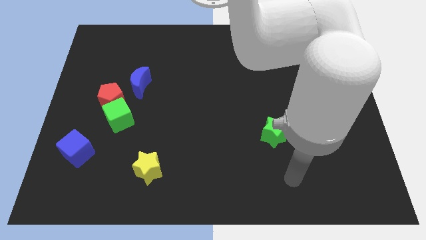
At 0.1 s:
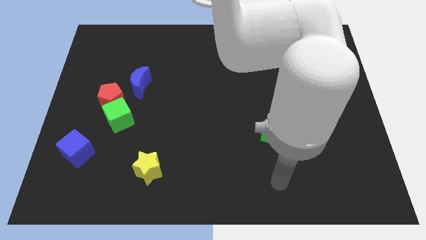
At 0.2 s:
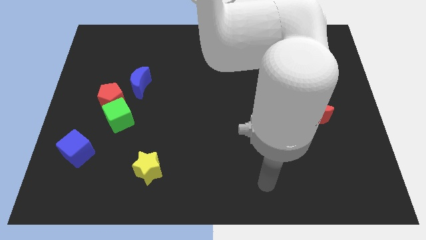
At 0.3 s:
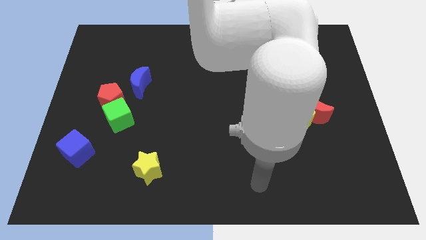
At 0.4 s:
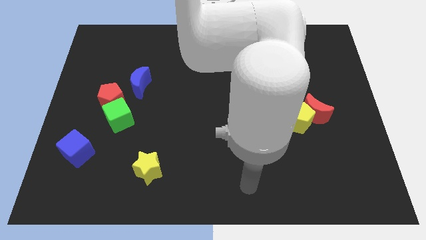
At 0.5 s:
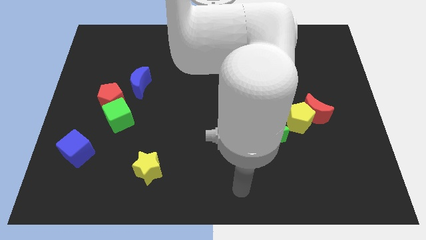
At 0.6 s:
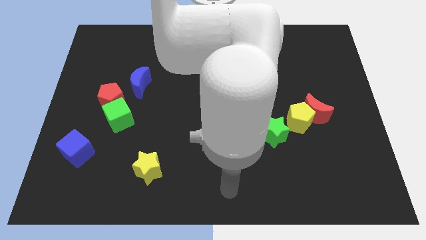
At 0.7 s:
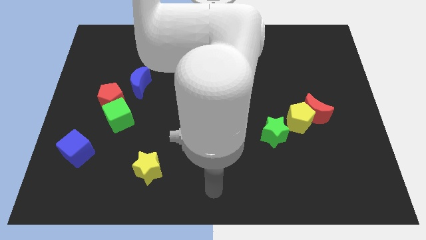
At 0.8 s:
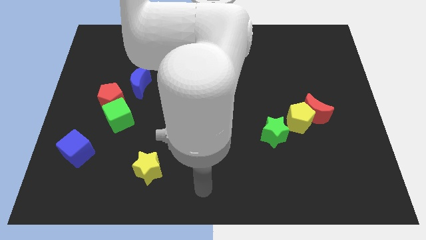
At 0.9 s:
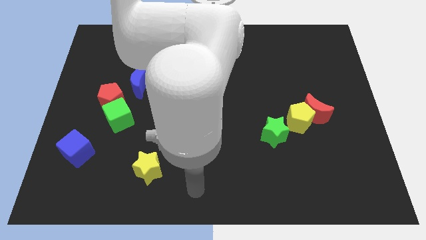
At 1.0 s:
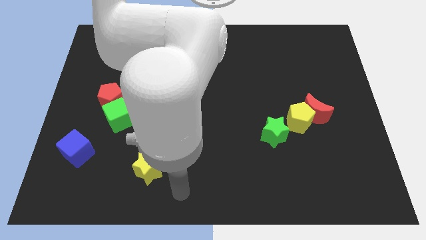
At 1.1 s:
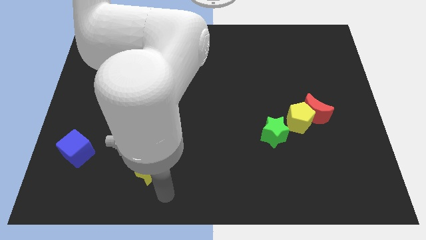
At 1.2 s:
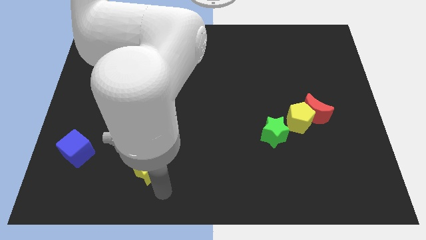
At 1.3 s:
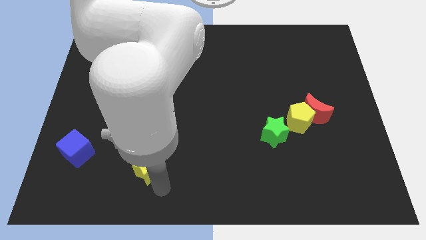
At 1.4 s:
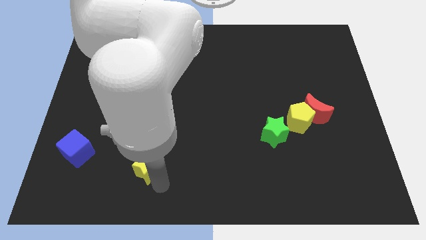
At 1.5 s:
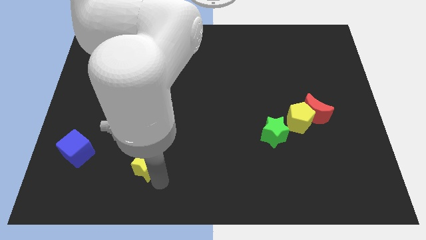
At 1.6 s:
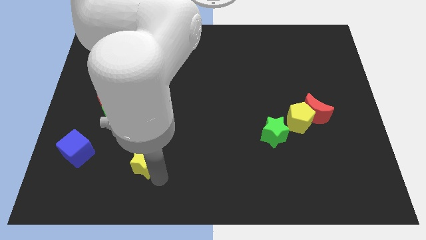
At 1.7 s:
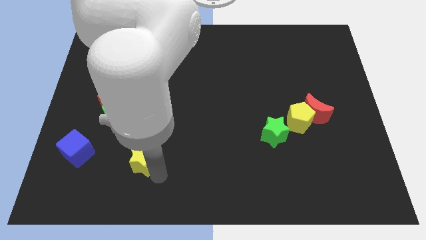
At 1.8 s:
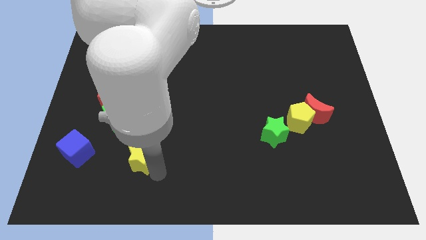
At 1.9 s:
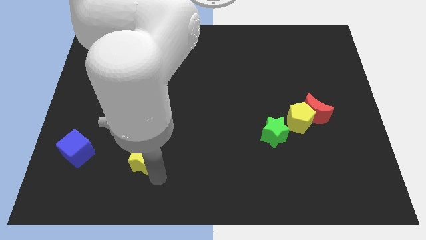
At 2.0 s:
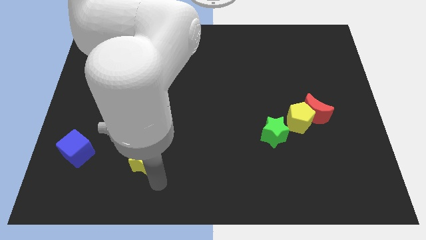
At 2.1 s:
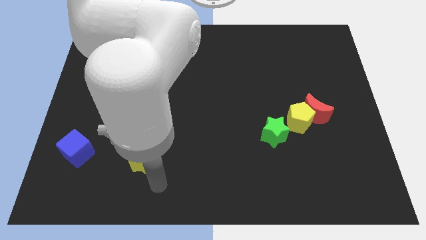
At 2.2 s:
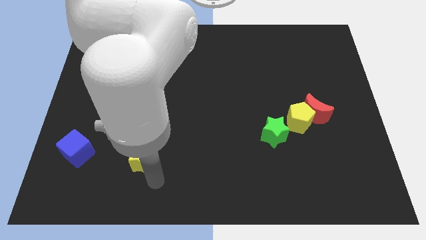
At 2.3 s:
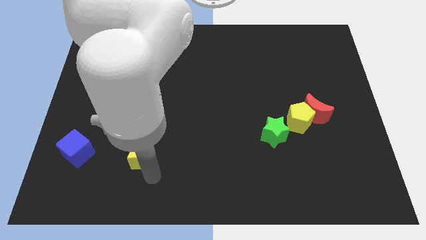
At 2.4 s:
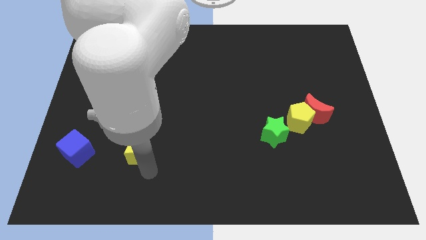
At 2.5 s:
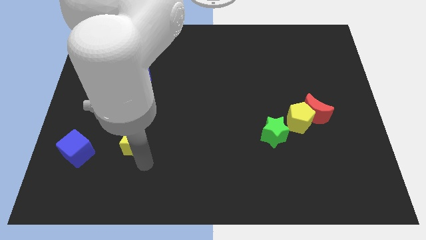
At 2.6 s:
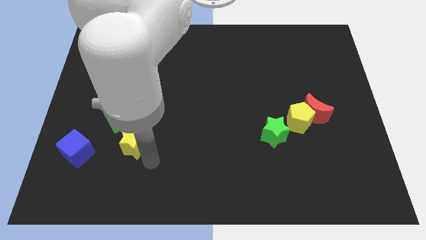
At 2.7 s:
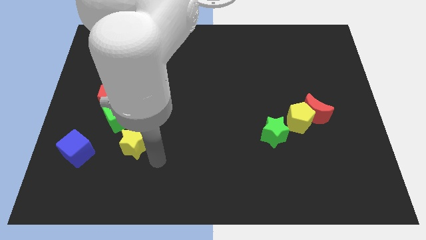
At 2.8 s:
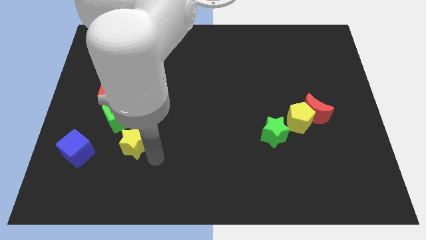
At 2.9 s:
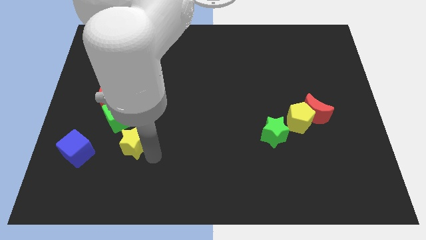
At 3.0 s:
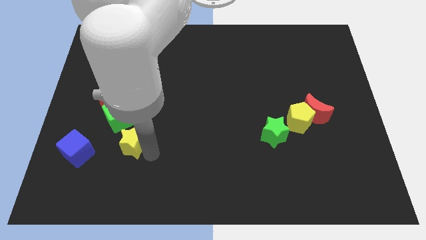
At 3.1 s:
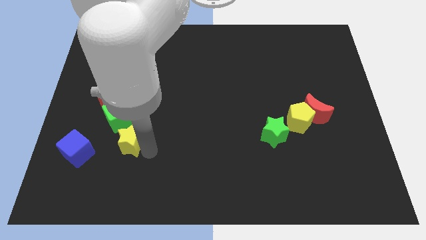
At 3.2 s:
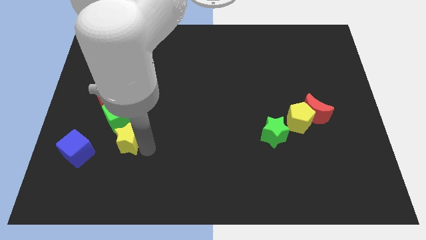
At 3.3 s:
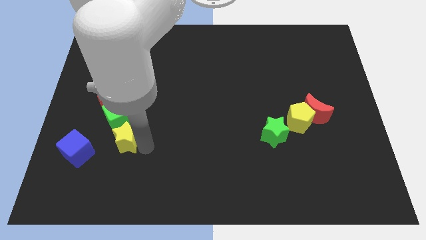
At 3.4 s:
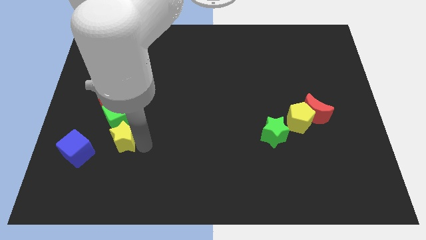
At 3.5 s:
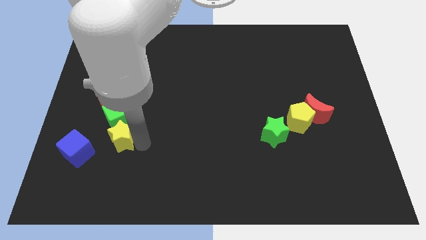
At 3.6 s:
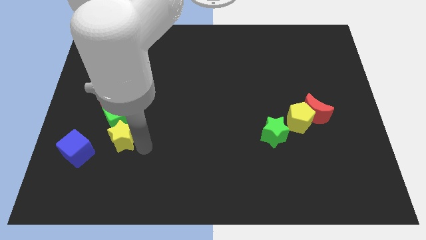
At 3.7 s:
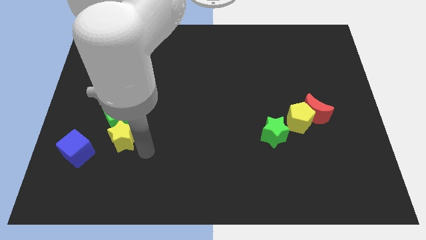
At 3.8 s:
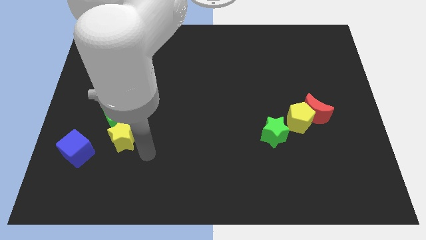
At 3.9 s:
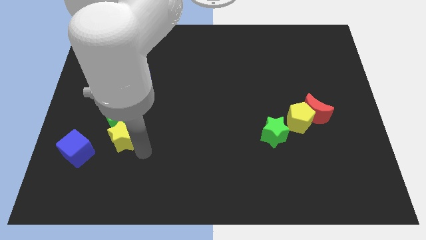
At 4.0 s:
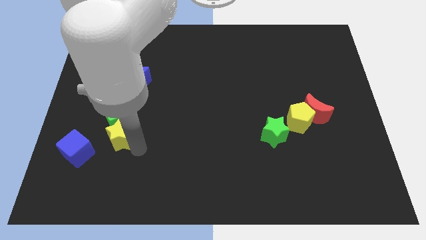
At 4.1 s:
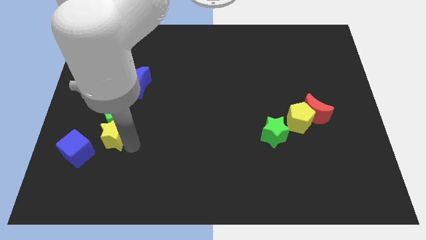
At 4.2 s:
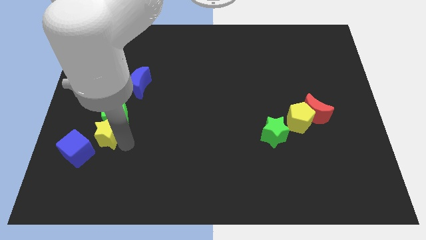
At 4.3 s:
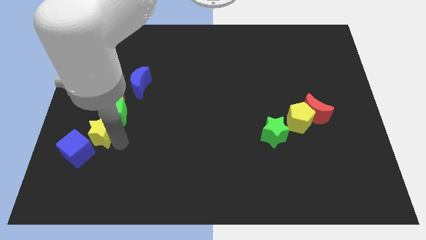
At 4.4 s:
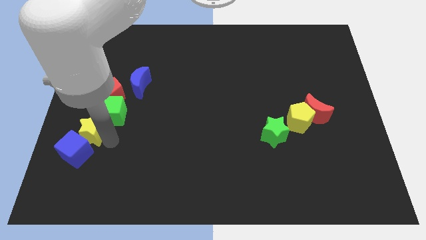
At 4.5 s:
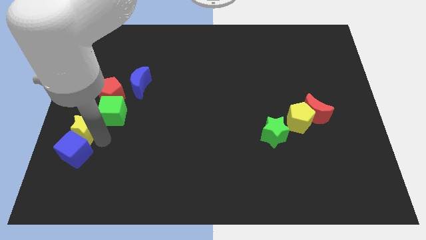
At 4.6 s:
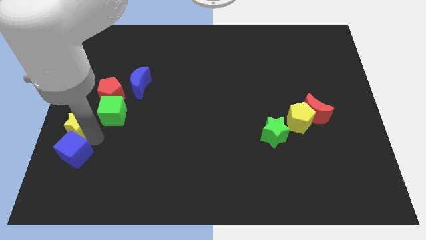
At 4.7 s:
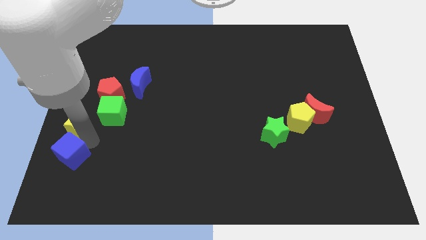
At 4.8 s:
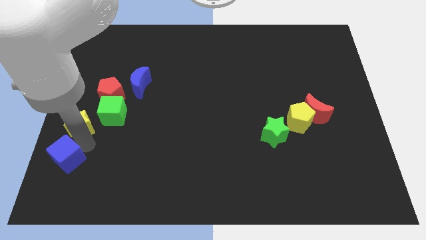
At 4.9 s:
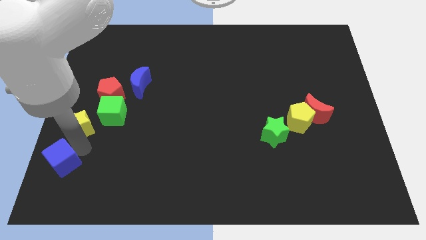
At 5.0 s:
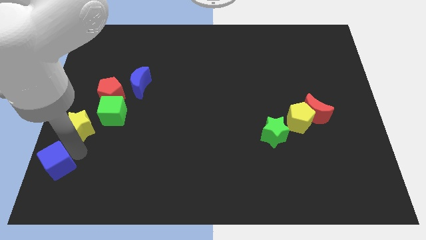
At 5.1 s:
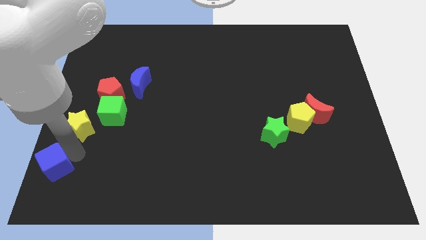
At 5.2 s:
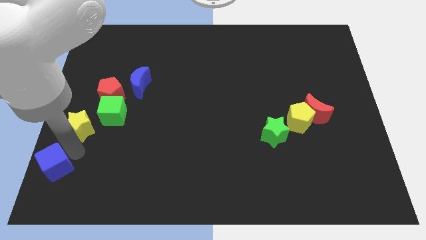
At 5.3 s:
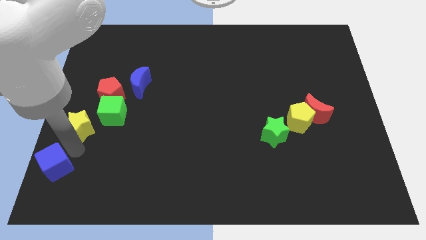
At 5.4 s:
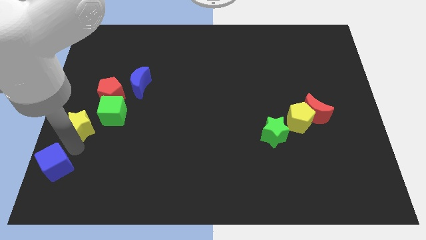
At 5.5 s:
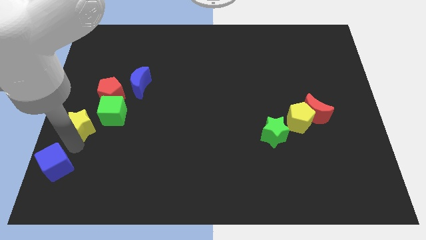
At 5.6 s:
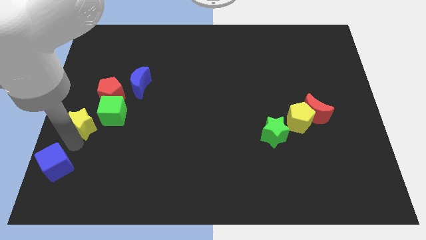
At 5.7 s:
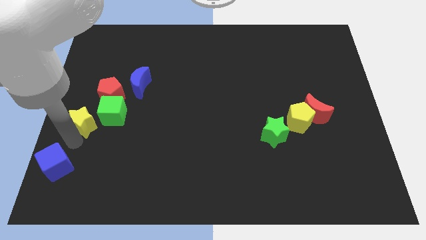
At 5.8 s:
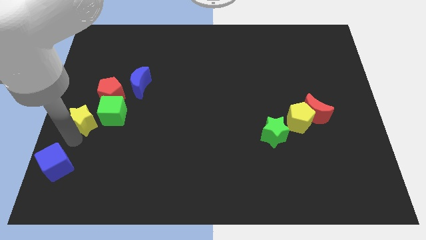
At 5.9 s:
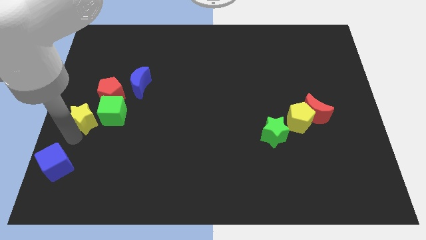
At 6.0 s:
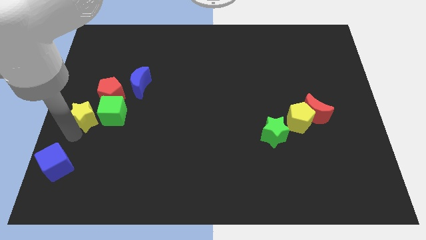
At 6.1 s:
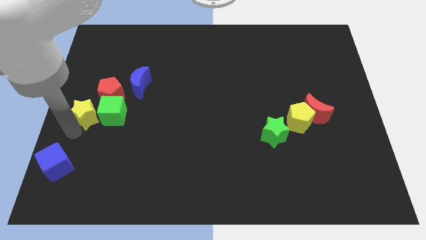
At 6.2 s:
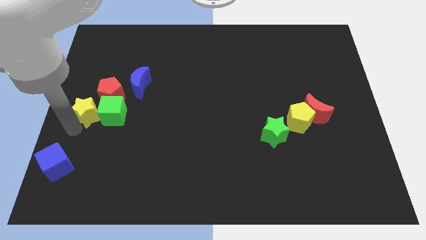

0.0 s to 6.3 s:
put the yellow star diagonally up and to the left of the green cube

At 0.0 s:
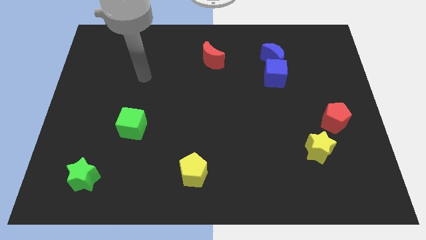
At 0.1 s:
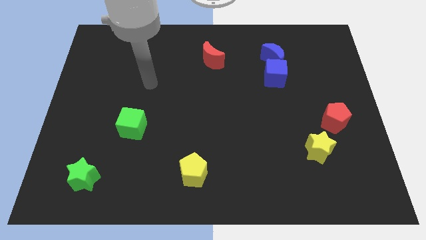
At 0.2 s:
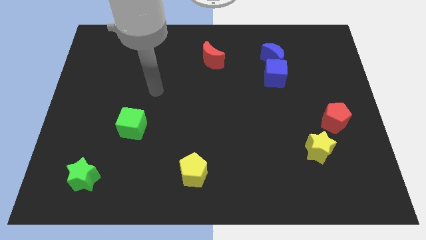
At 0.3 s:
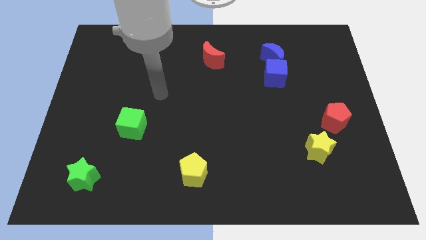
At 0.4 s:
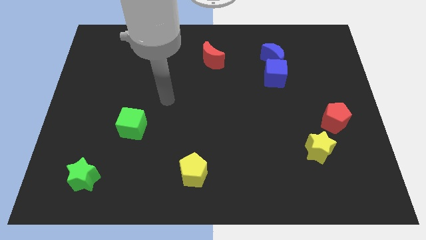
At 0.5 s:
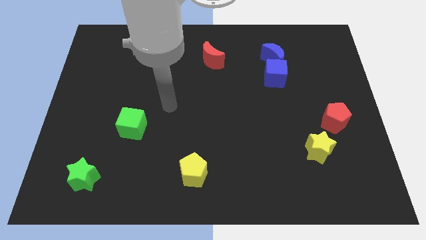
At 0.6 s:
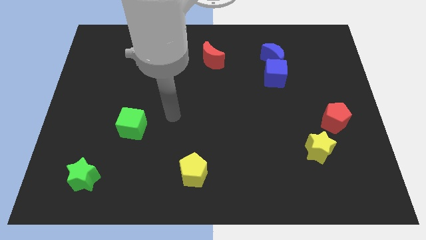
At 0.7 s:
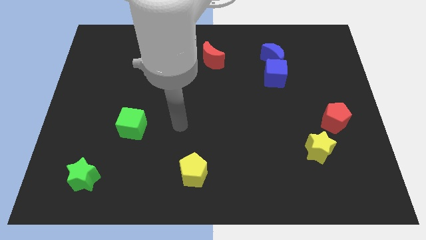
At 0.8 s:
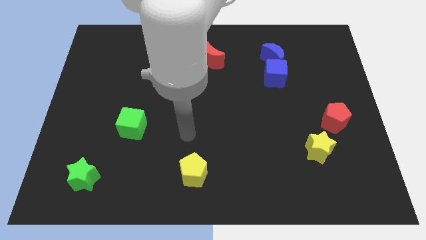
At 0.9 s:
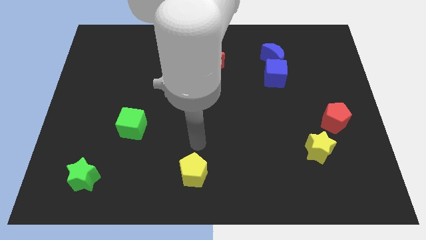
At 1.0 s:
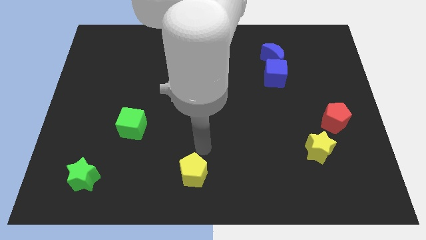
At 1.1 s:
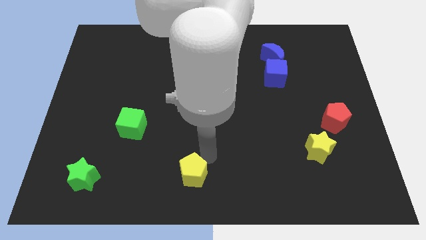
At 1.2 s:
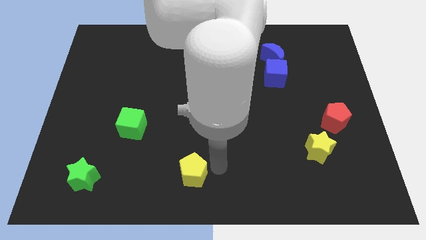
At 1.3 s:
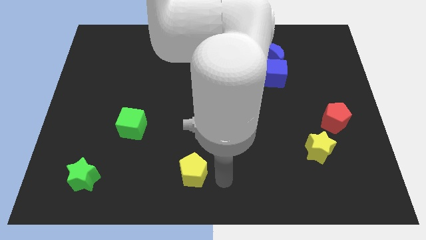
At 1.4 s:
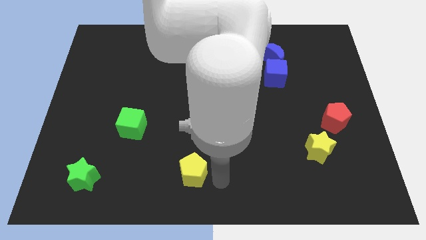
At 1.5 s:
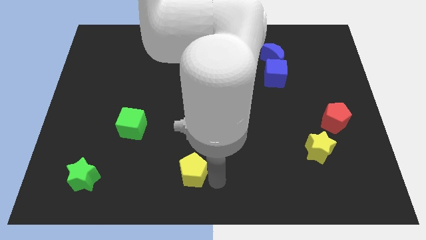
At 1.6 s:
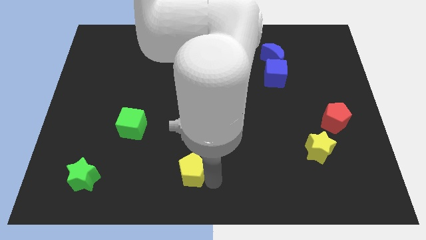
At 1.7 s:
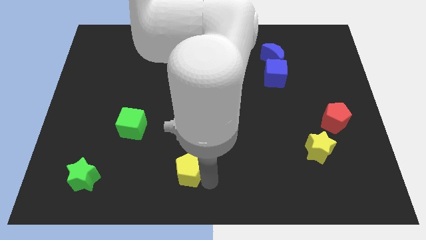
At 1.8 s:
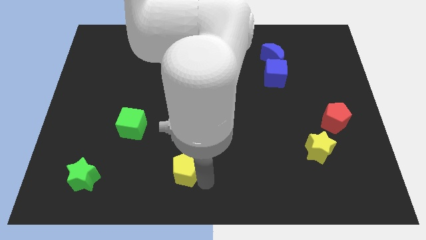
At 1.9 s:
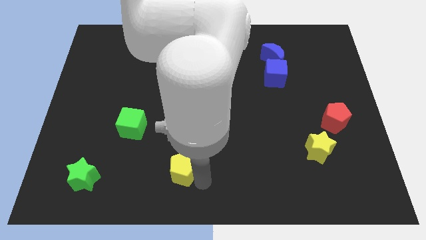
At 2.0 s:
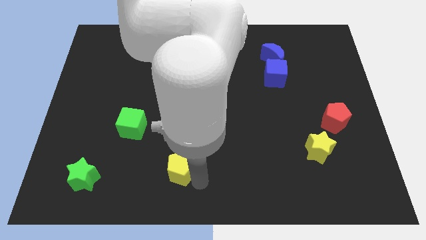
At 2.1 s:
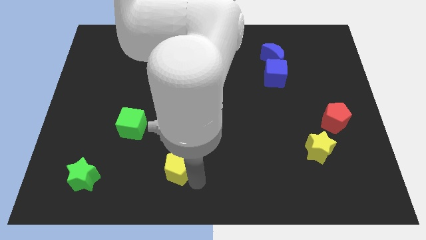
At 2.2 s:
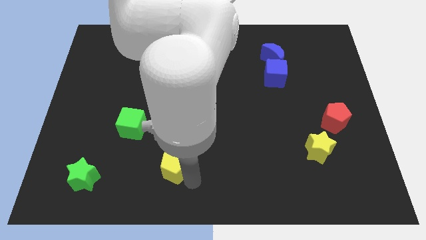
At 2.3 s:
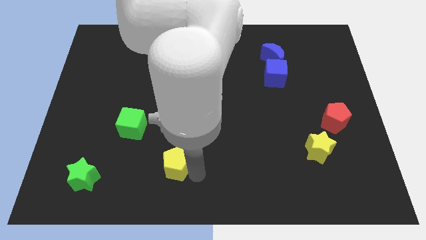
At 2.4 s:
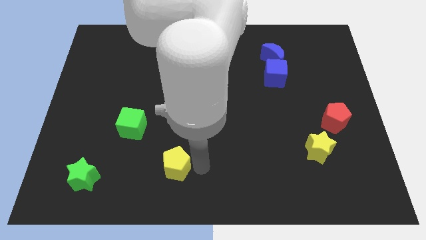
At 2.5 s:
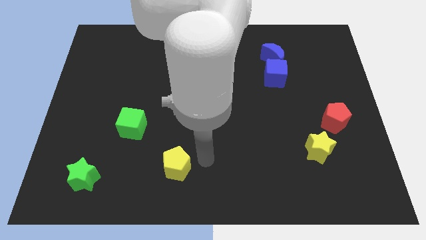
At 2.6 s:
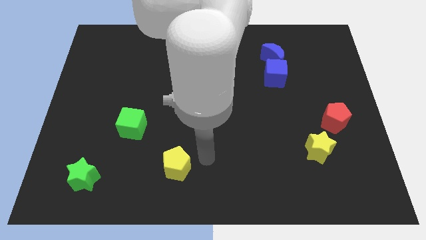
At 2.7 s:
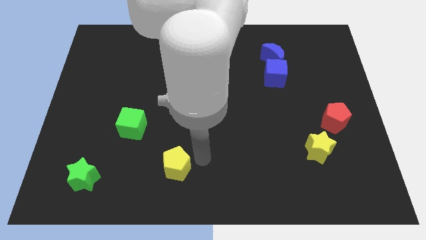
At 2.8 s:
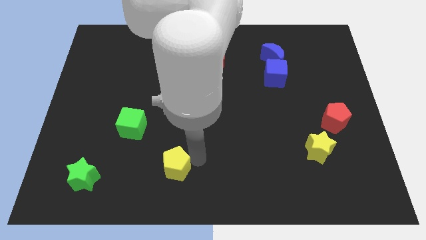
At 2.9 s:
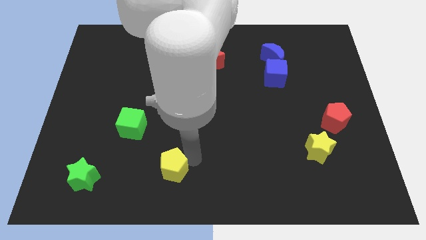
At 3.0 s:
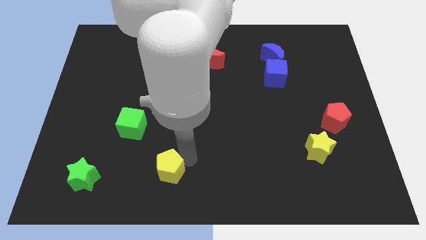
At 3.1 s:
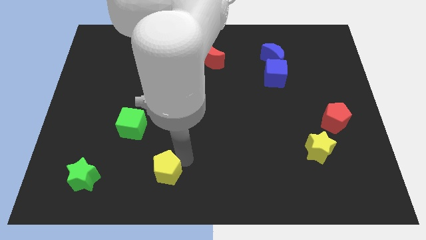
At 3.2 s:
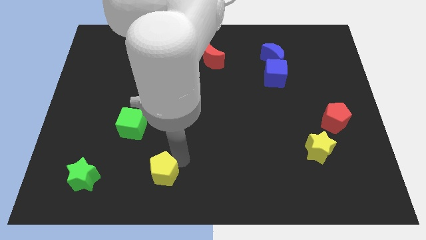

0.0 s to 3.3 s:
put the yellow pentagon to the right side of the green star
